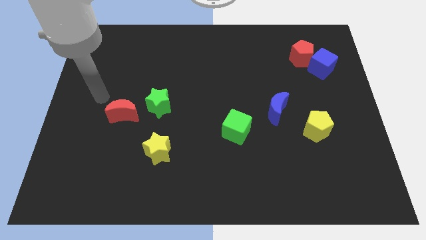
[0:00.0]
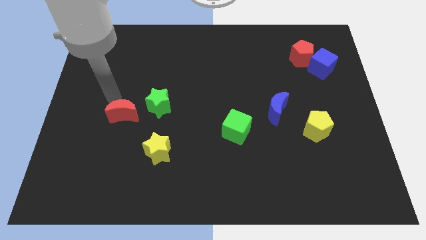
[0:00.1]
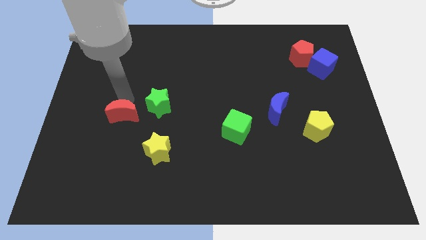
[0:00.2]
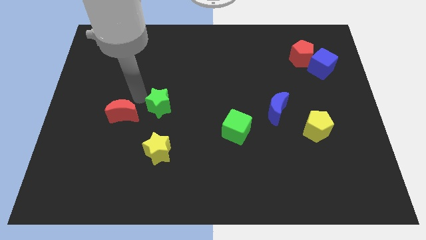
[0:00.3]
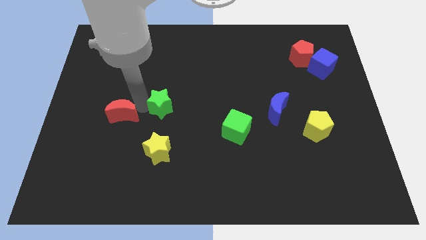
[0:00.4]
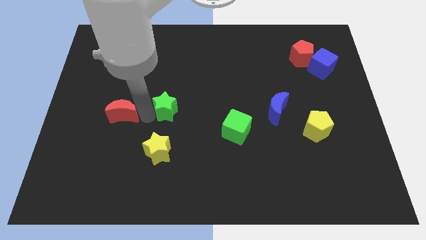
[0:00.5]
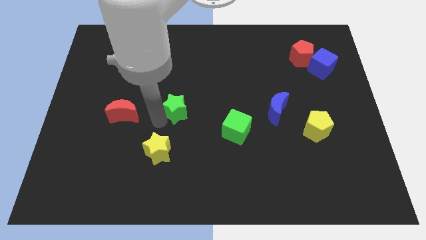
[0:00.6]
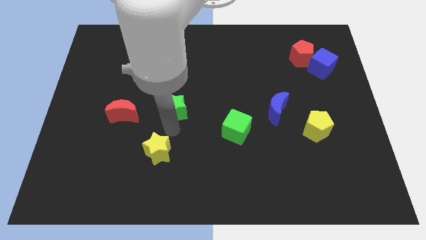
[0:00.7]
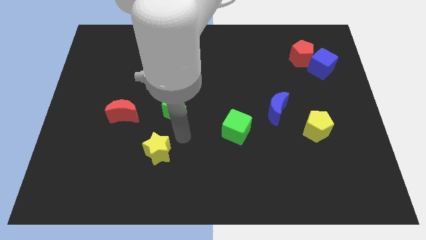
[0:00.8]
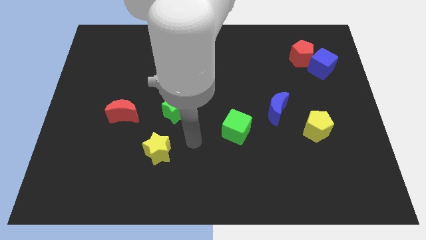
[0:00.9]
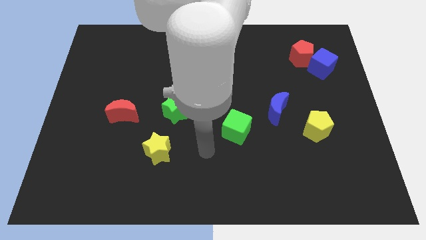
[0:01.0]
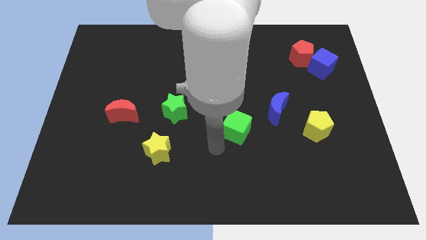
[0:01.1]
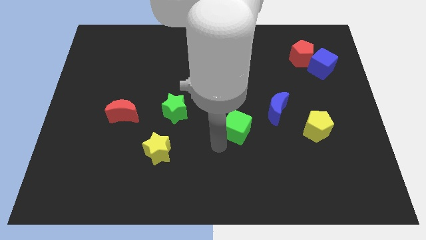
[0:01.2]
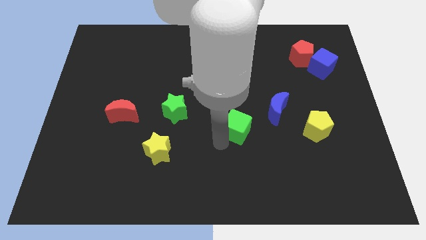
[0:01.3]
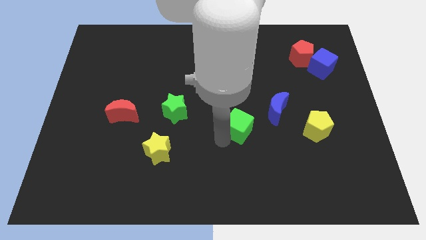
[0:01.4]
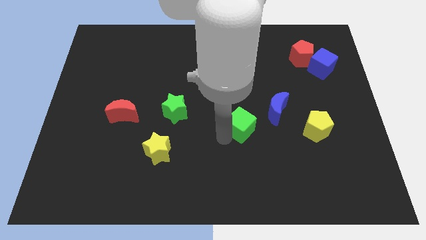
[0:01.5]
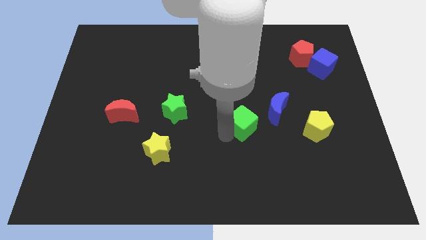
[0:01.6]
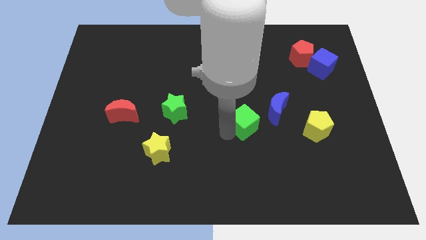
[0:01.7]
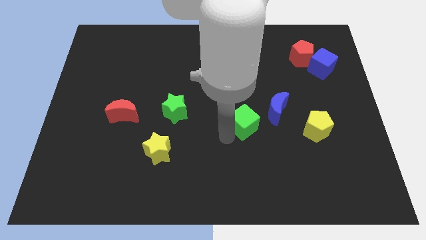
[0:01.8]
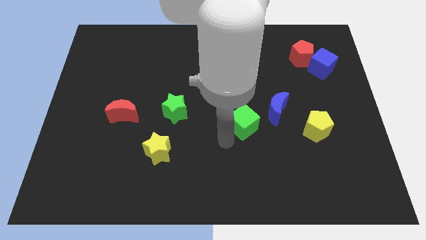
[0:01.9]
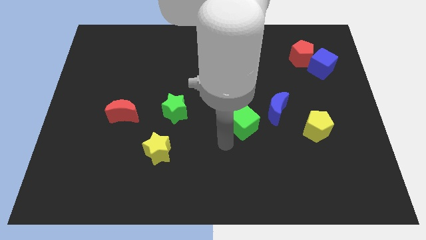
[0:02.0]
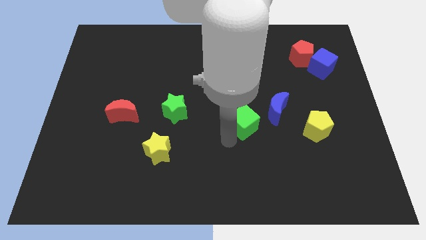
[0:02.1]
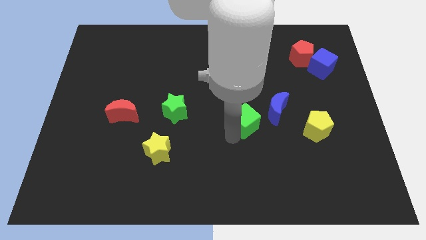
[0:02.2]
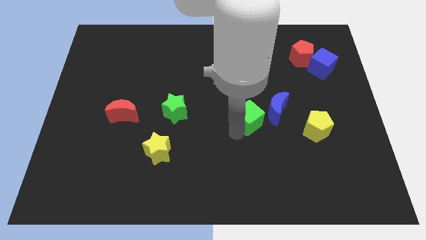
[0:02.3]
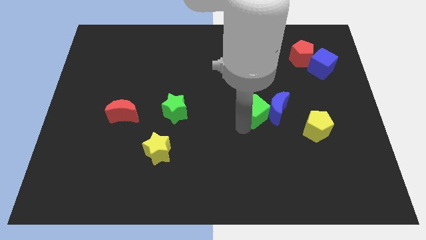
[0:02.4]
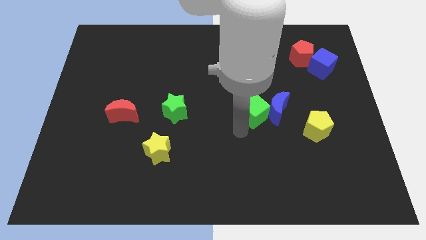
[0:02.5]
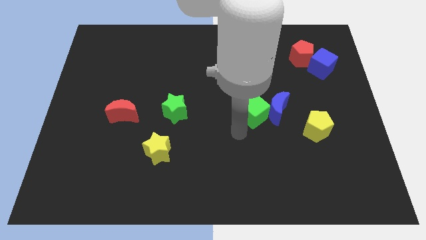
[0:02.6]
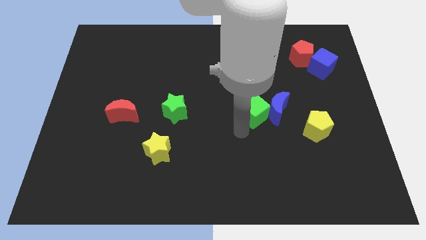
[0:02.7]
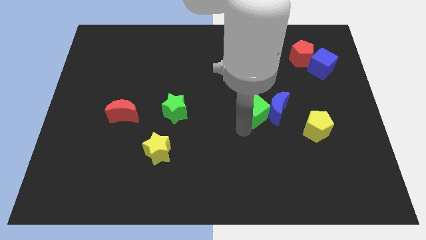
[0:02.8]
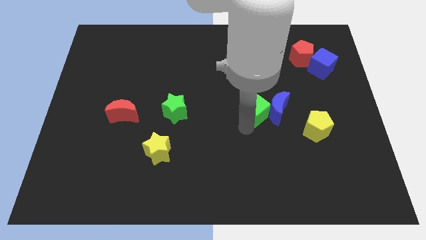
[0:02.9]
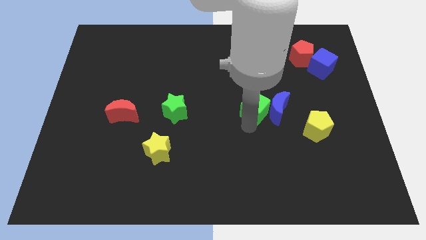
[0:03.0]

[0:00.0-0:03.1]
move the green cube a bit upwards and then to the right

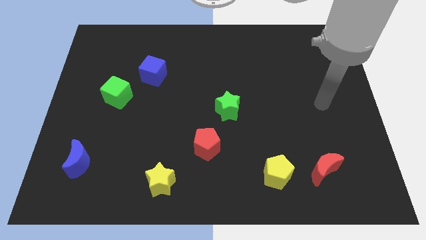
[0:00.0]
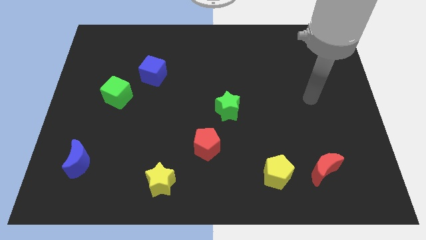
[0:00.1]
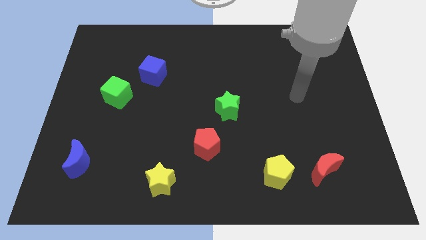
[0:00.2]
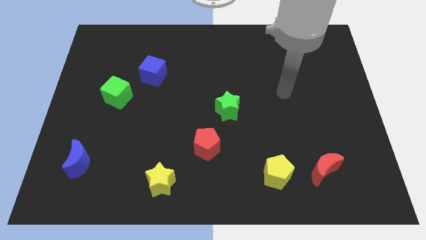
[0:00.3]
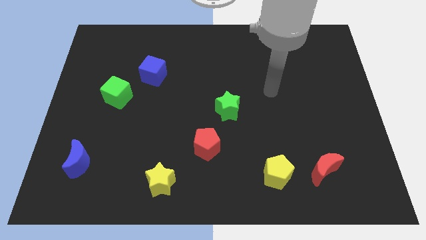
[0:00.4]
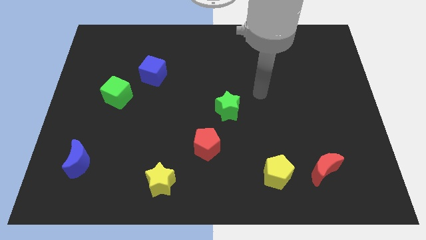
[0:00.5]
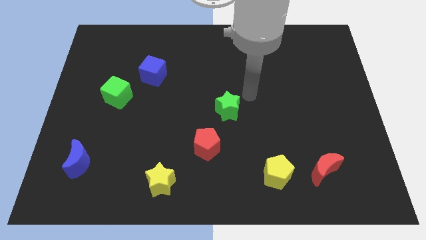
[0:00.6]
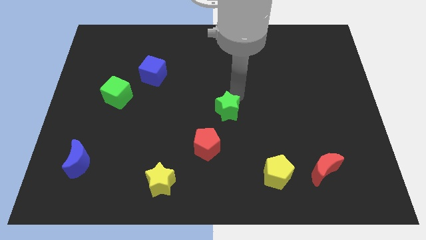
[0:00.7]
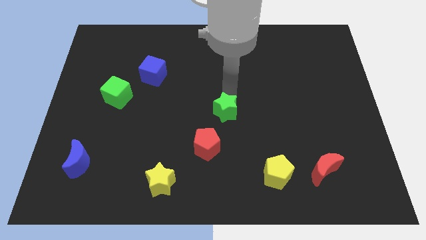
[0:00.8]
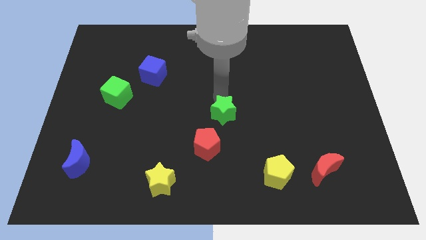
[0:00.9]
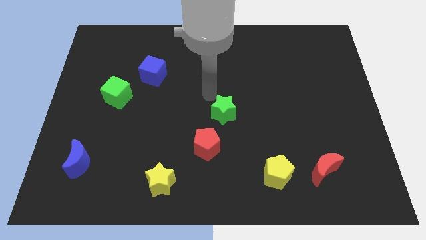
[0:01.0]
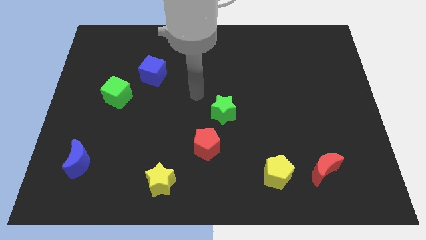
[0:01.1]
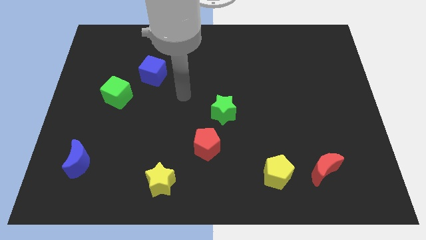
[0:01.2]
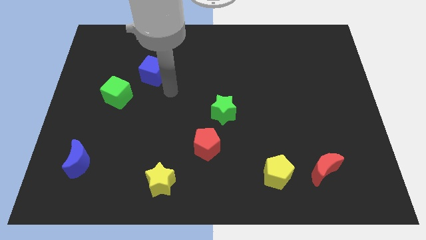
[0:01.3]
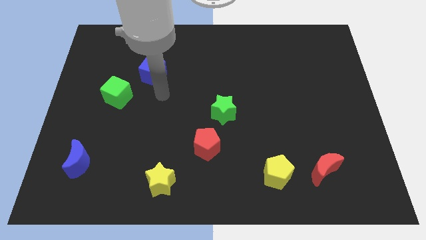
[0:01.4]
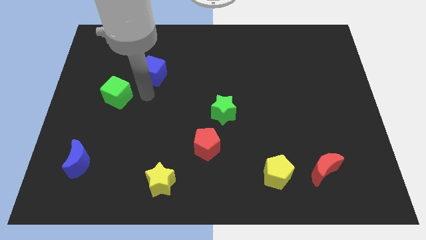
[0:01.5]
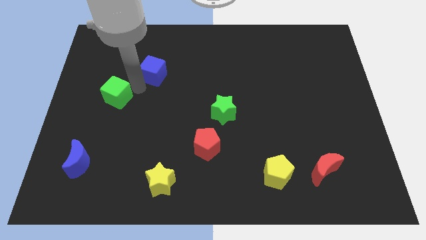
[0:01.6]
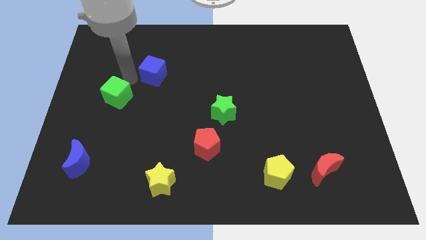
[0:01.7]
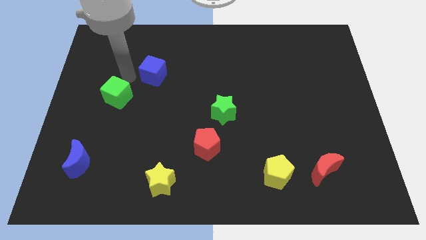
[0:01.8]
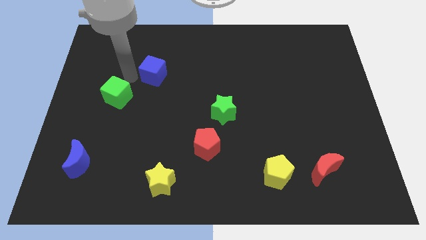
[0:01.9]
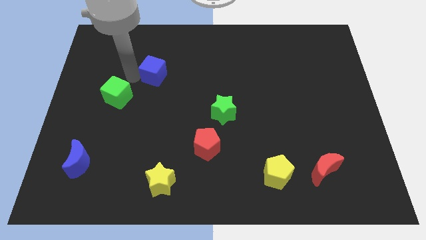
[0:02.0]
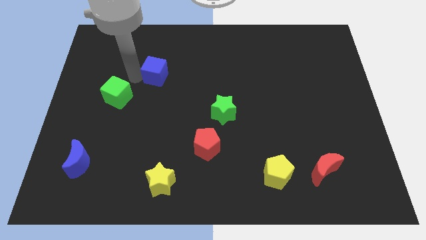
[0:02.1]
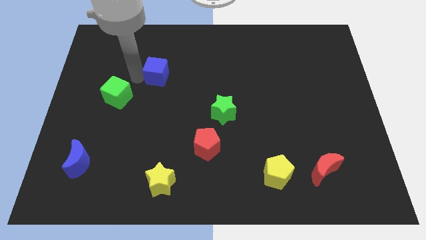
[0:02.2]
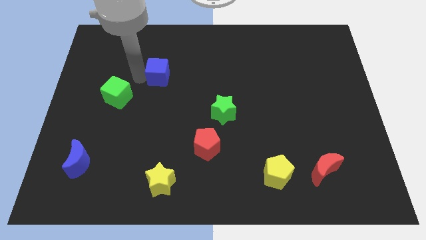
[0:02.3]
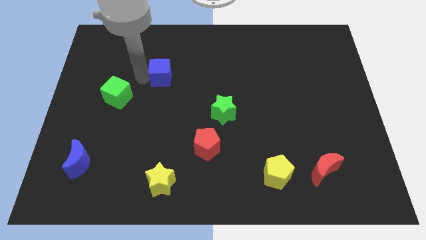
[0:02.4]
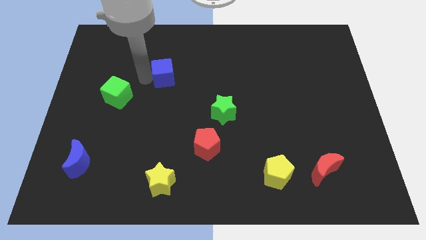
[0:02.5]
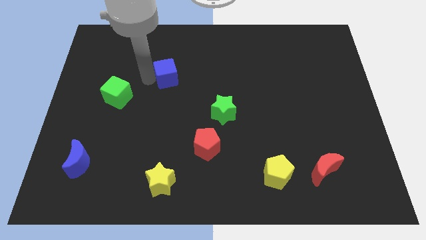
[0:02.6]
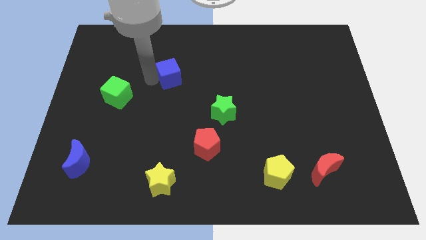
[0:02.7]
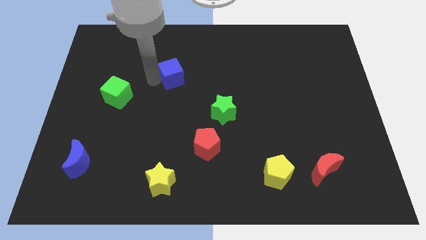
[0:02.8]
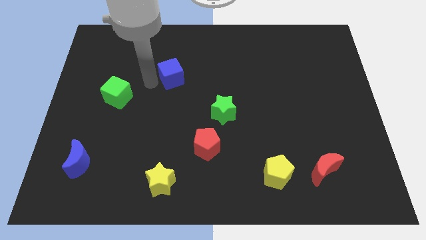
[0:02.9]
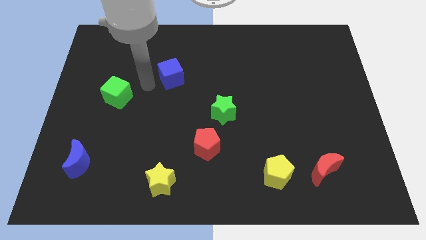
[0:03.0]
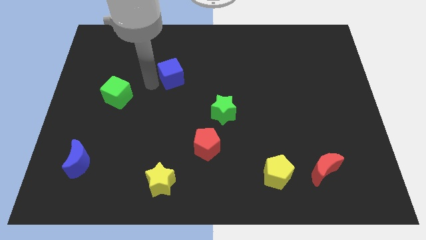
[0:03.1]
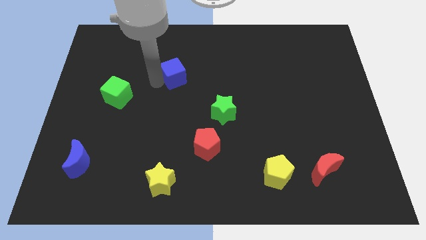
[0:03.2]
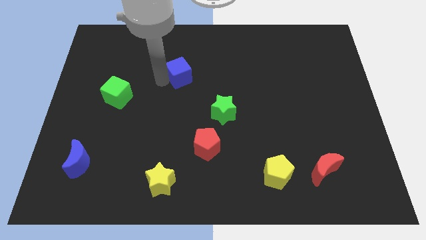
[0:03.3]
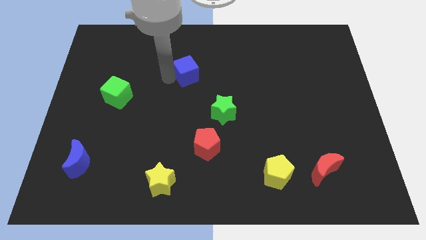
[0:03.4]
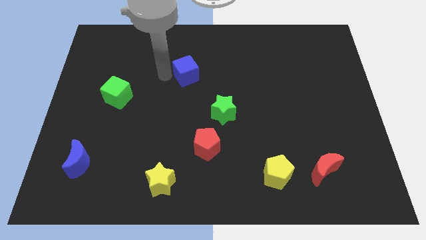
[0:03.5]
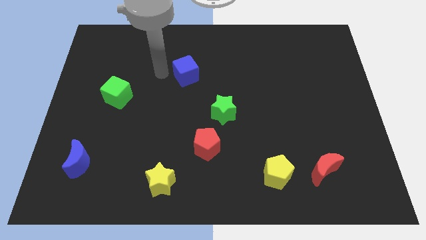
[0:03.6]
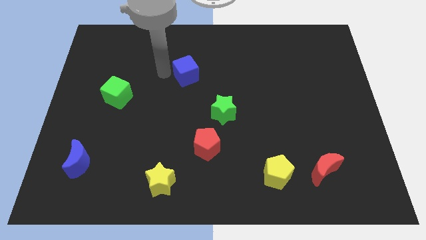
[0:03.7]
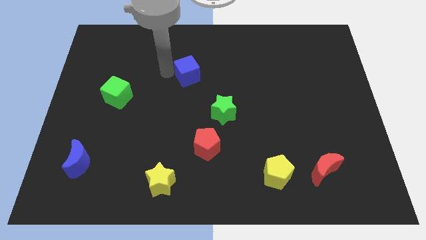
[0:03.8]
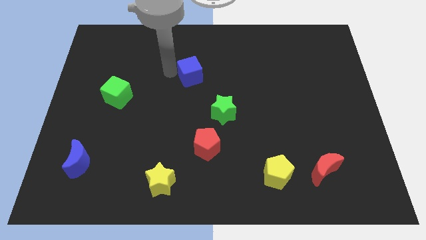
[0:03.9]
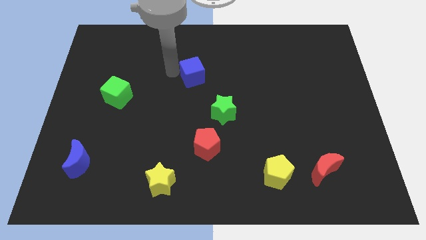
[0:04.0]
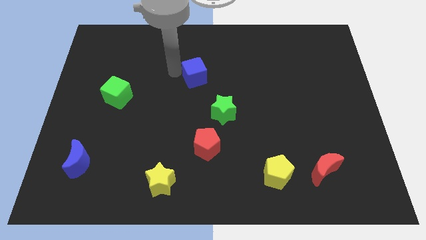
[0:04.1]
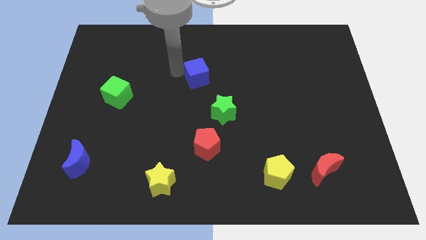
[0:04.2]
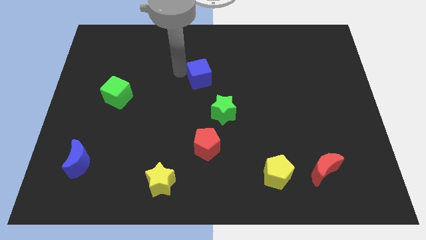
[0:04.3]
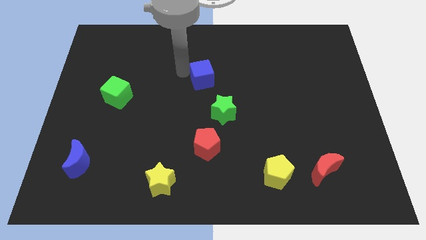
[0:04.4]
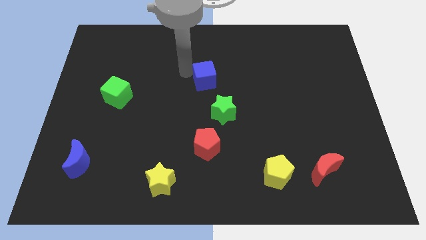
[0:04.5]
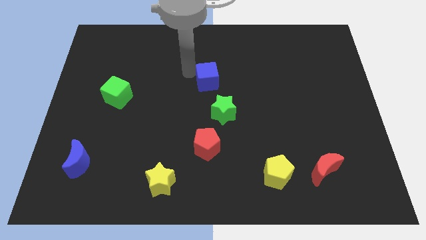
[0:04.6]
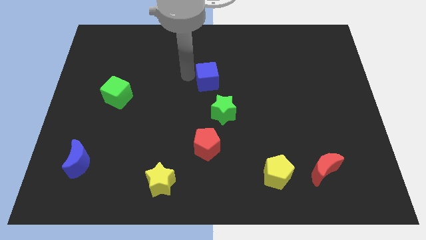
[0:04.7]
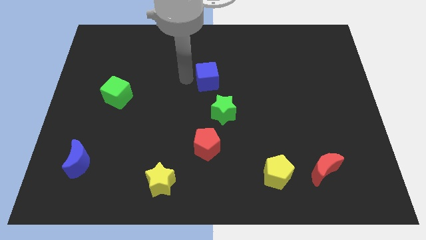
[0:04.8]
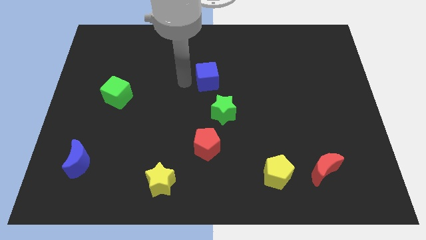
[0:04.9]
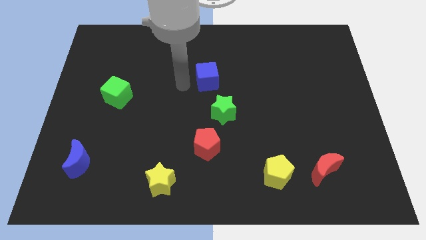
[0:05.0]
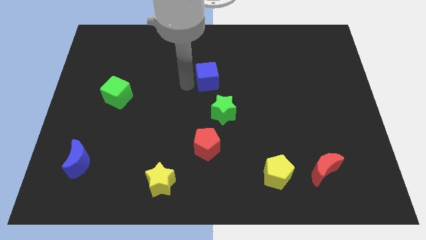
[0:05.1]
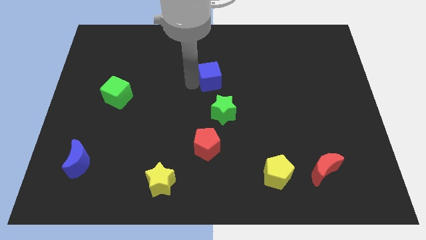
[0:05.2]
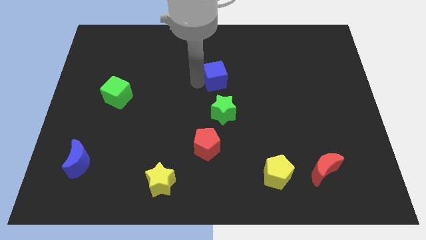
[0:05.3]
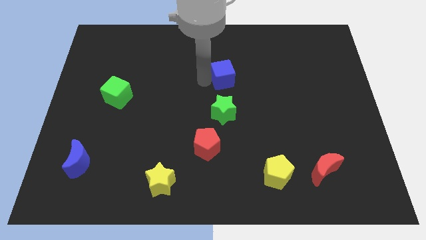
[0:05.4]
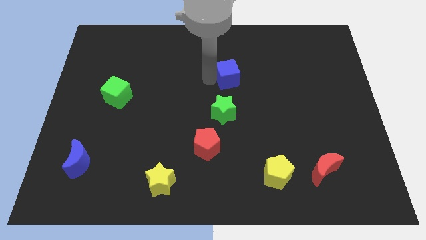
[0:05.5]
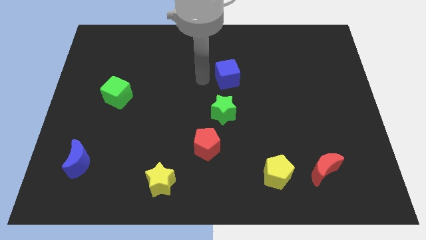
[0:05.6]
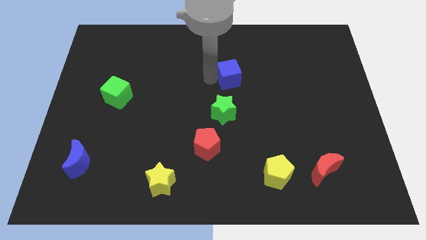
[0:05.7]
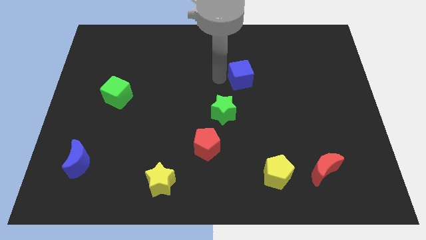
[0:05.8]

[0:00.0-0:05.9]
move the blue cube right
